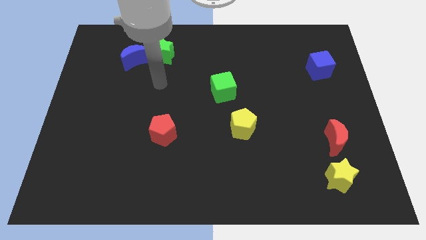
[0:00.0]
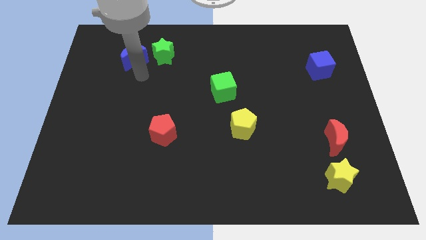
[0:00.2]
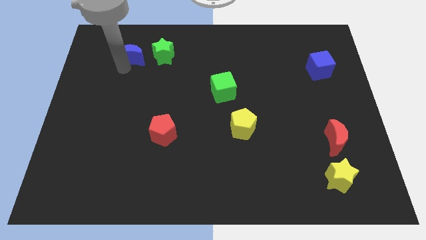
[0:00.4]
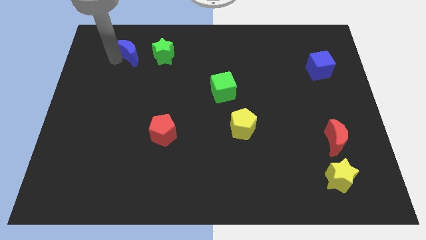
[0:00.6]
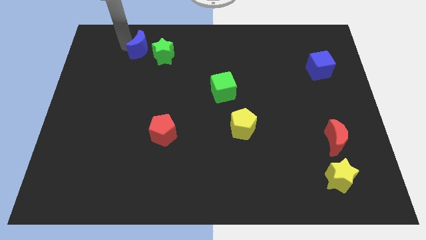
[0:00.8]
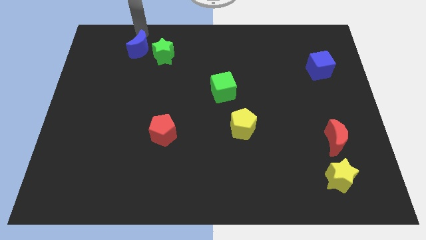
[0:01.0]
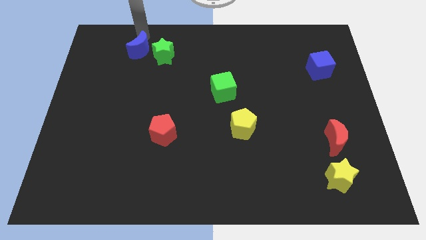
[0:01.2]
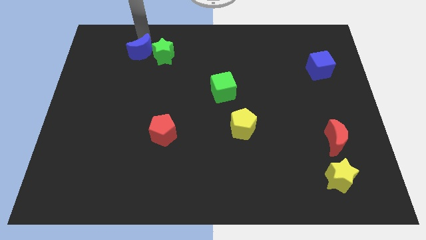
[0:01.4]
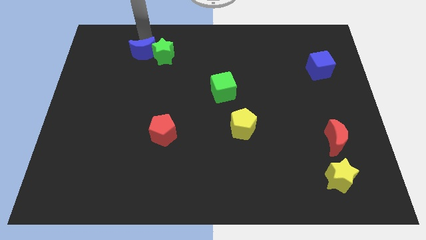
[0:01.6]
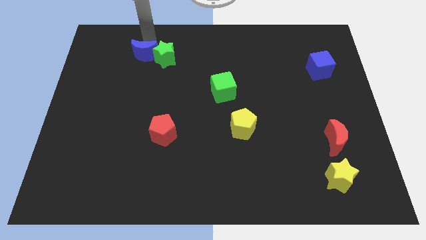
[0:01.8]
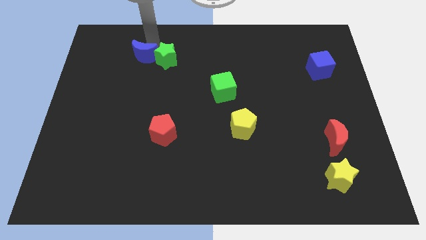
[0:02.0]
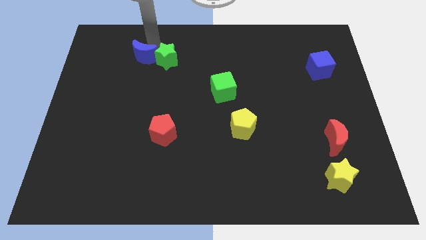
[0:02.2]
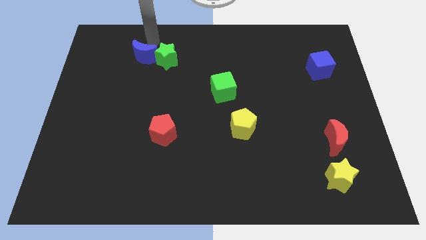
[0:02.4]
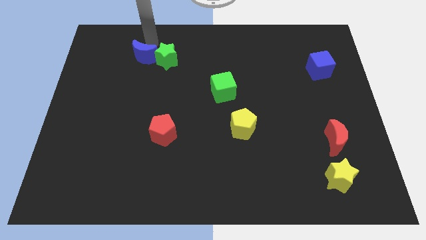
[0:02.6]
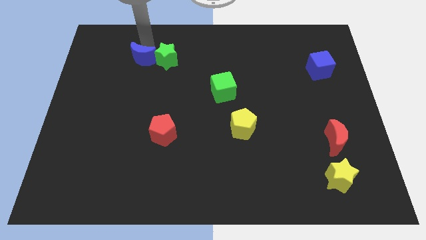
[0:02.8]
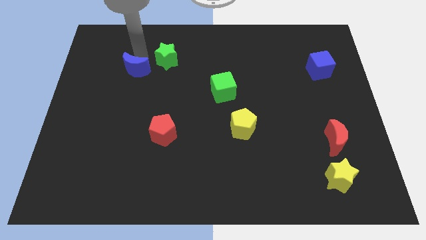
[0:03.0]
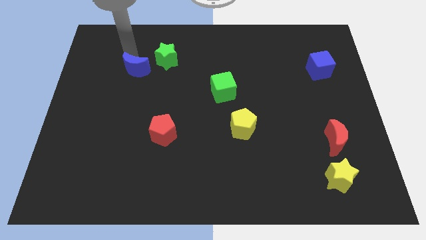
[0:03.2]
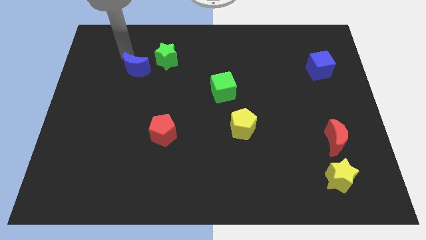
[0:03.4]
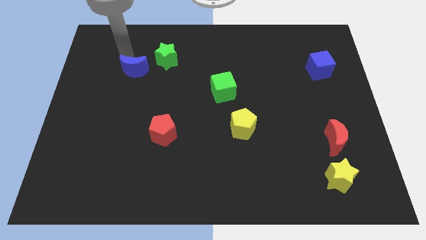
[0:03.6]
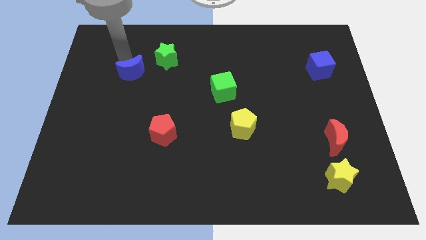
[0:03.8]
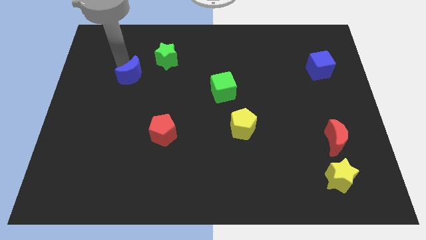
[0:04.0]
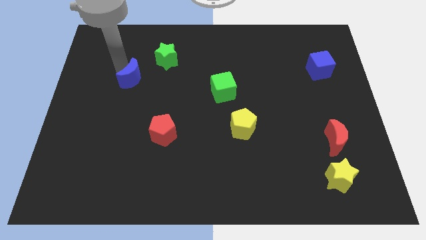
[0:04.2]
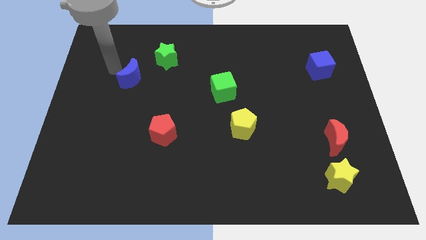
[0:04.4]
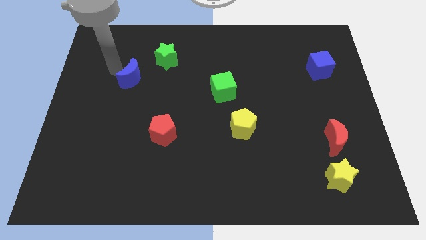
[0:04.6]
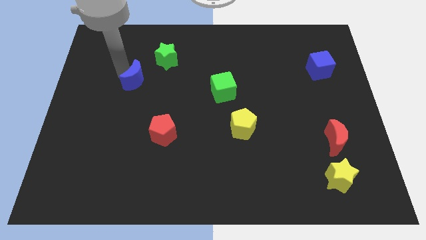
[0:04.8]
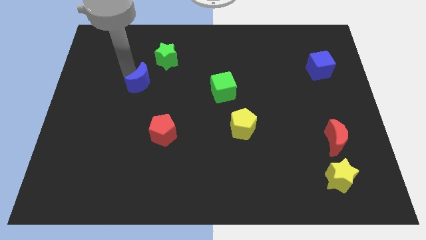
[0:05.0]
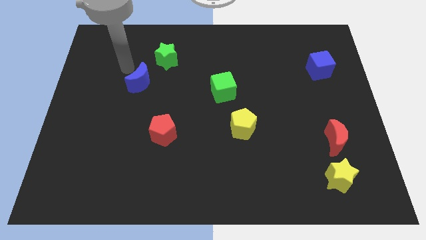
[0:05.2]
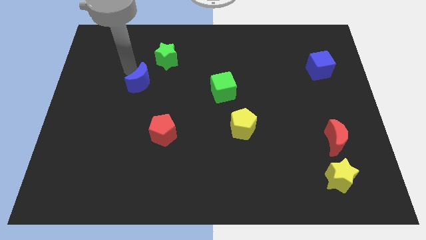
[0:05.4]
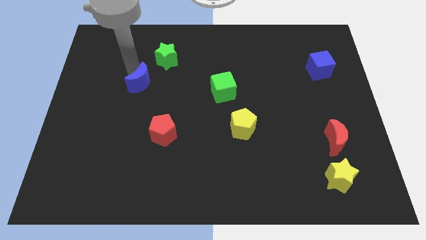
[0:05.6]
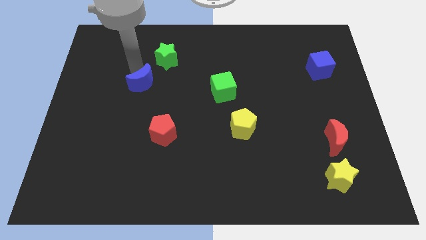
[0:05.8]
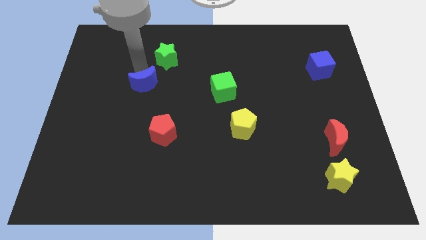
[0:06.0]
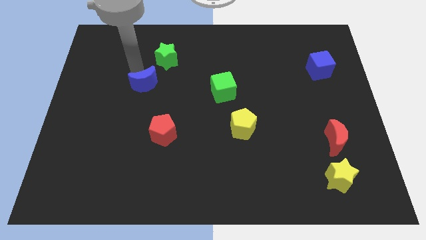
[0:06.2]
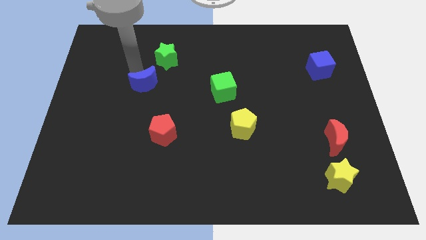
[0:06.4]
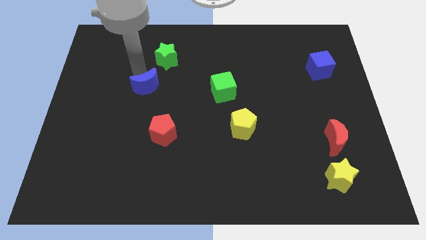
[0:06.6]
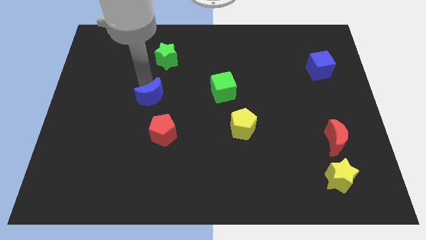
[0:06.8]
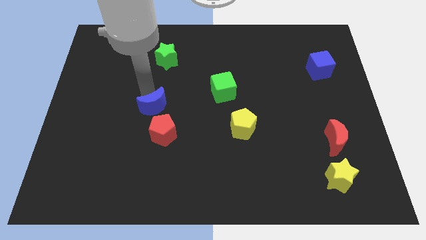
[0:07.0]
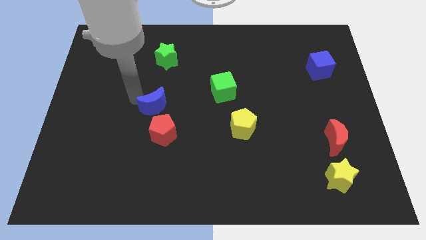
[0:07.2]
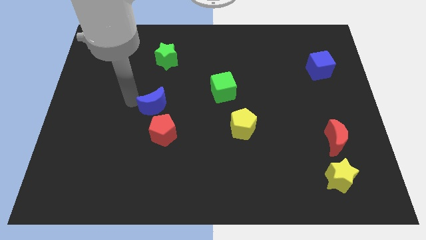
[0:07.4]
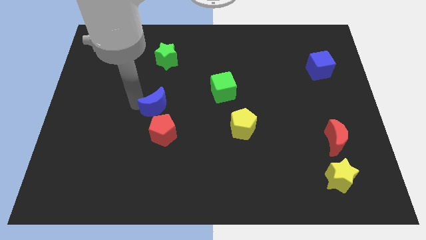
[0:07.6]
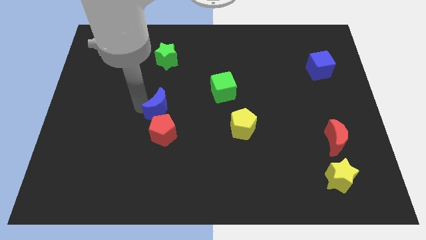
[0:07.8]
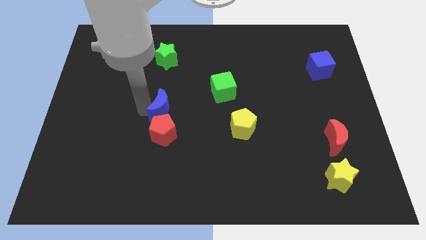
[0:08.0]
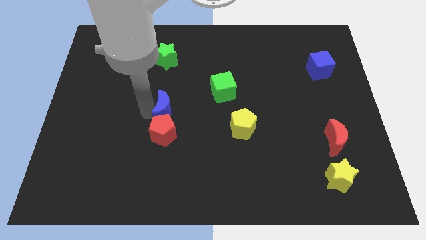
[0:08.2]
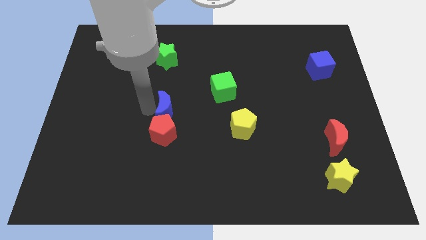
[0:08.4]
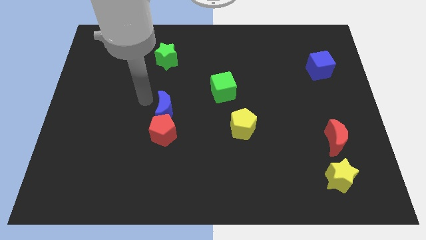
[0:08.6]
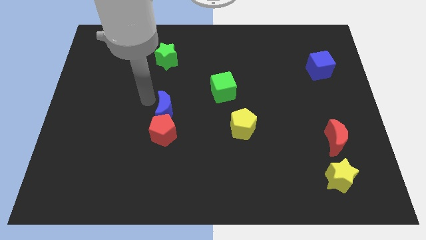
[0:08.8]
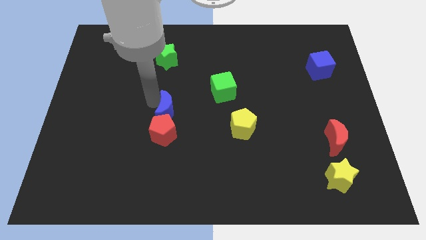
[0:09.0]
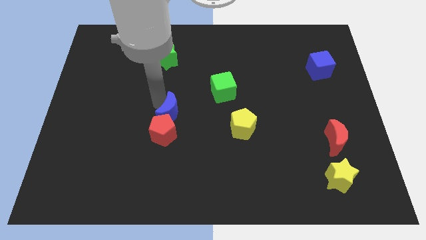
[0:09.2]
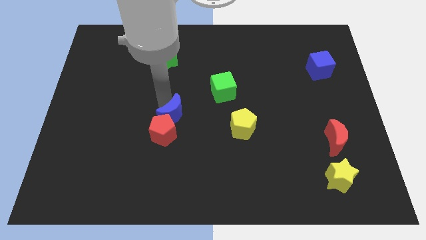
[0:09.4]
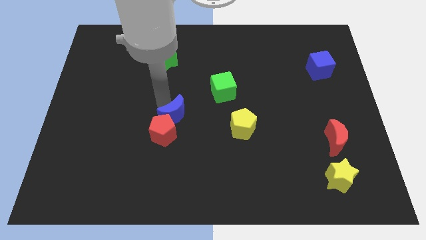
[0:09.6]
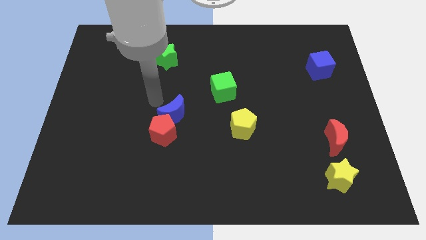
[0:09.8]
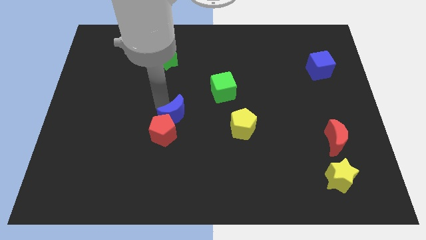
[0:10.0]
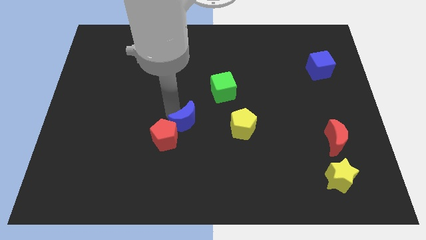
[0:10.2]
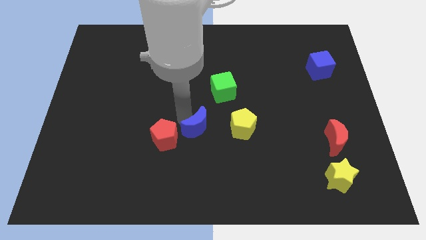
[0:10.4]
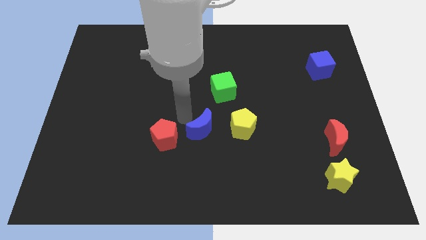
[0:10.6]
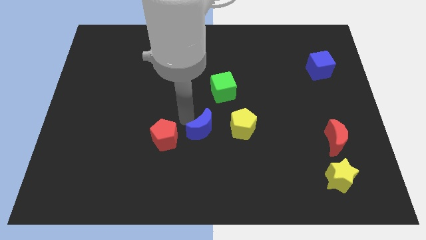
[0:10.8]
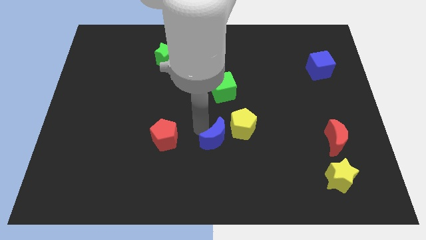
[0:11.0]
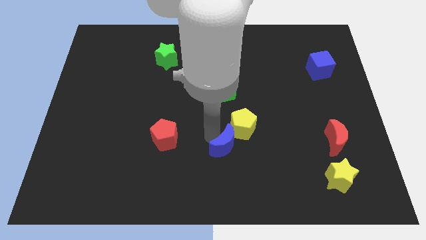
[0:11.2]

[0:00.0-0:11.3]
move the blue moon to the bottom of the yellow pentagon

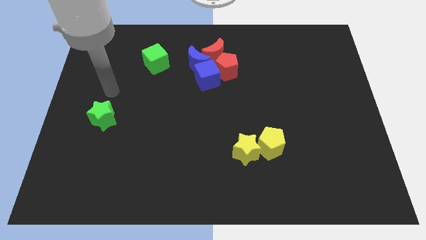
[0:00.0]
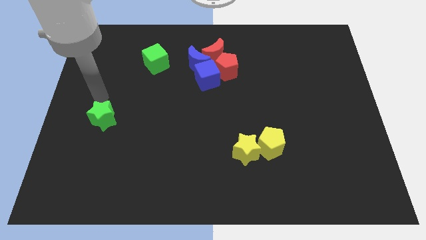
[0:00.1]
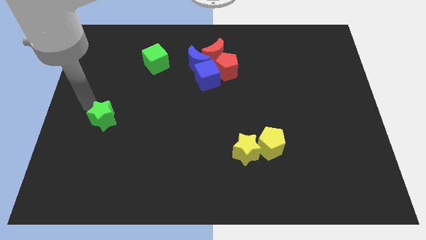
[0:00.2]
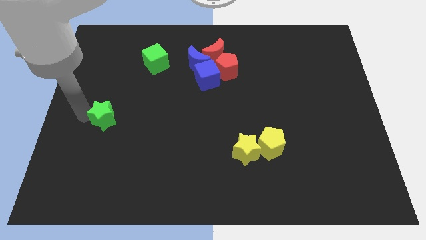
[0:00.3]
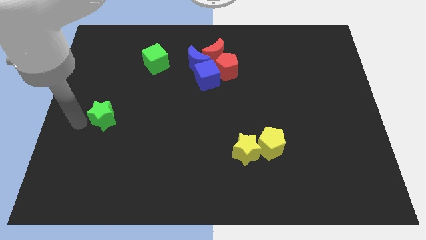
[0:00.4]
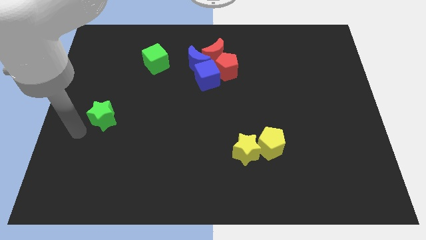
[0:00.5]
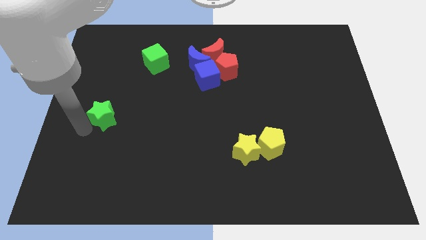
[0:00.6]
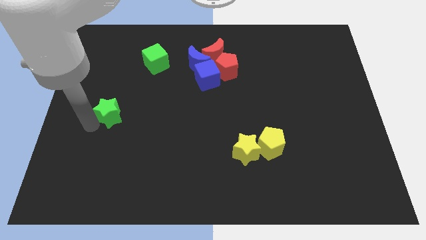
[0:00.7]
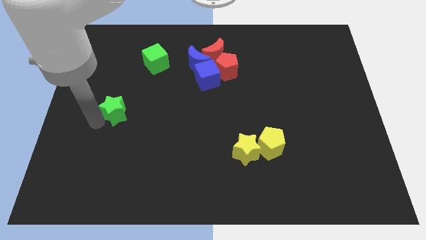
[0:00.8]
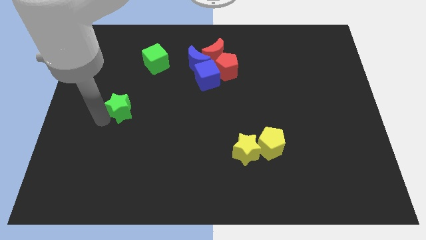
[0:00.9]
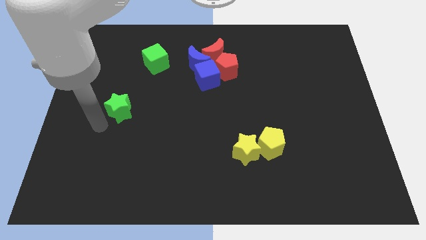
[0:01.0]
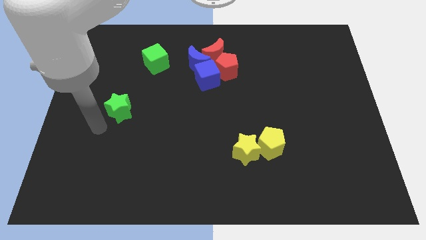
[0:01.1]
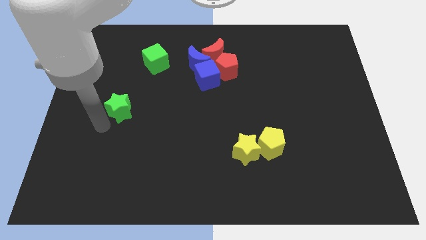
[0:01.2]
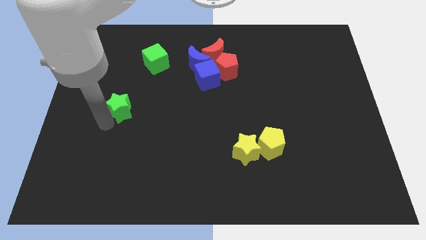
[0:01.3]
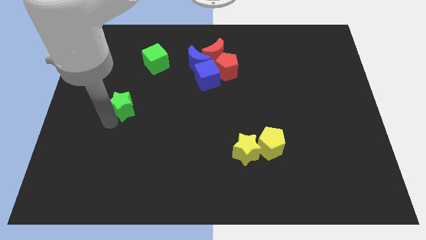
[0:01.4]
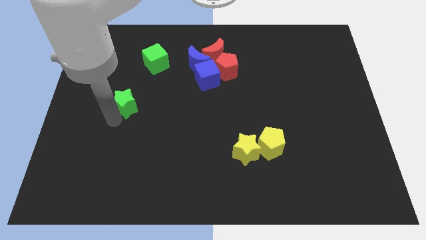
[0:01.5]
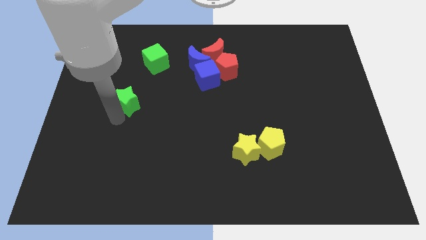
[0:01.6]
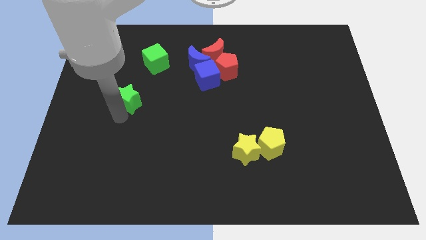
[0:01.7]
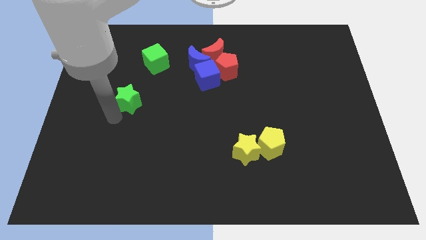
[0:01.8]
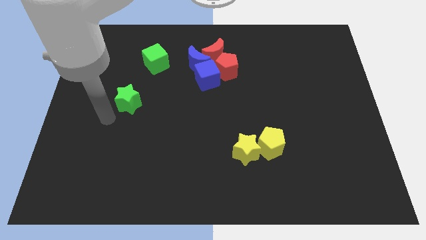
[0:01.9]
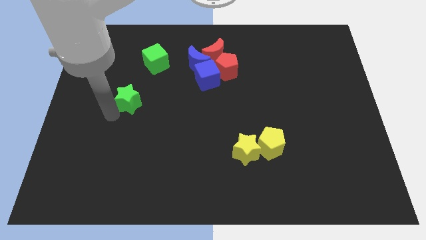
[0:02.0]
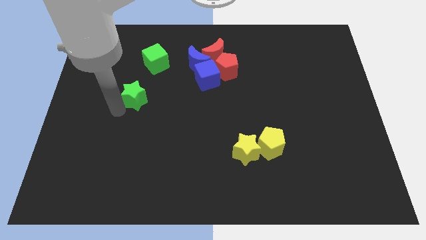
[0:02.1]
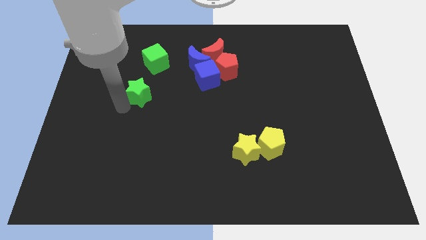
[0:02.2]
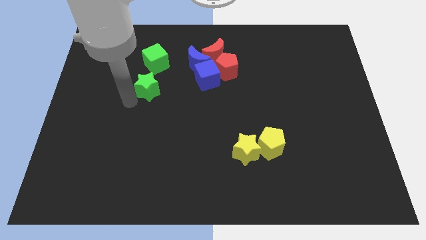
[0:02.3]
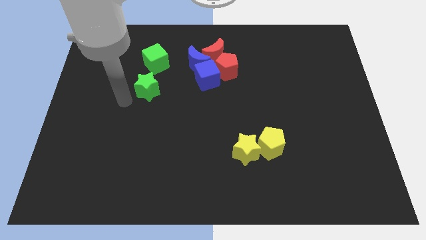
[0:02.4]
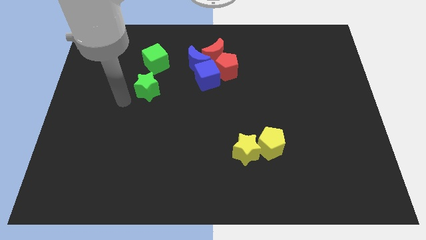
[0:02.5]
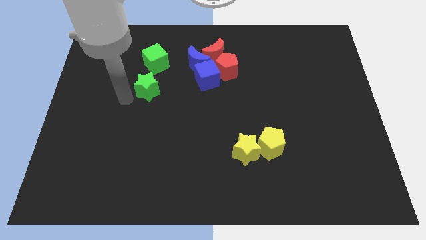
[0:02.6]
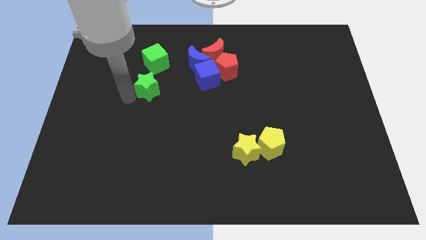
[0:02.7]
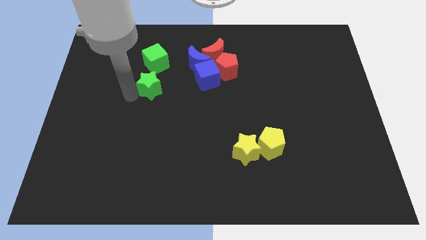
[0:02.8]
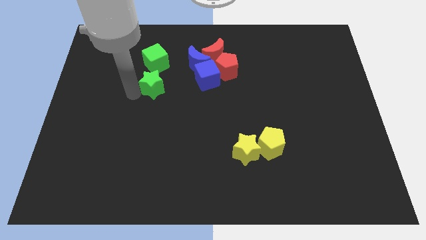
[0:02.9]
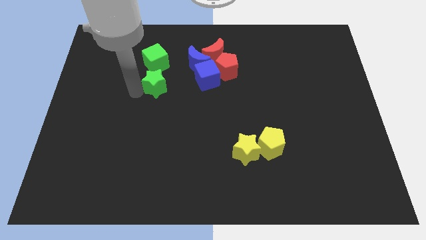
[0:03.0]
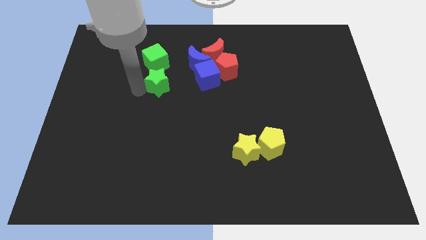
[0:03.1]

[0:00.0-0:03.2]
put the green star diagonally down and to the right of the green cube
